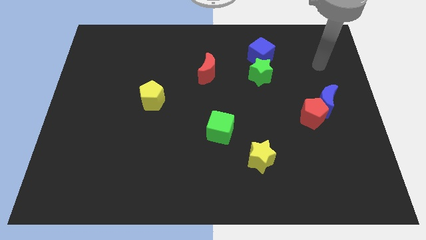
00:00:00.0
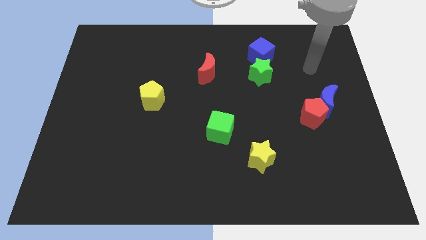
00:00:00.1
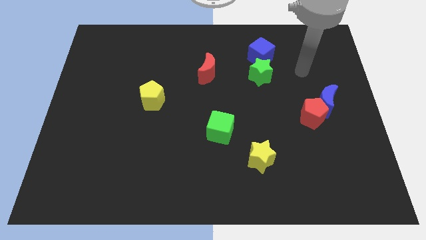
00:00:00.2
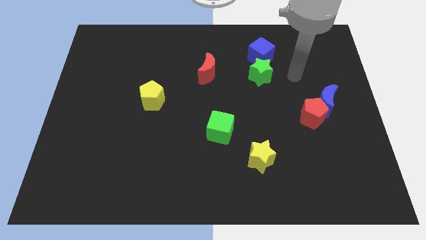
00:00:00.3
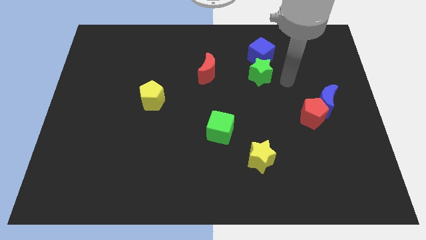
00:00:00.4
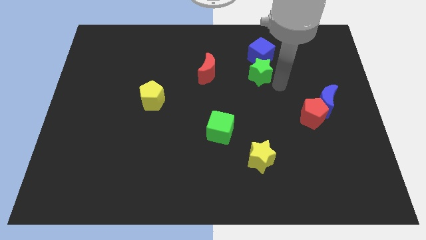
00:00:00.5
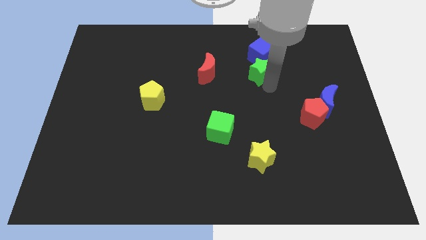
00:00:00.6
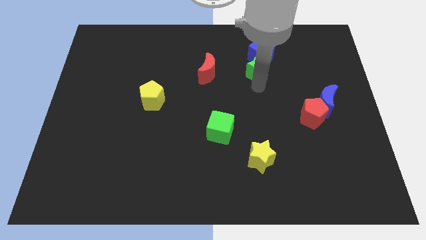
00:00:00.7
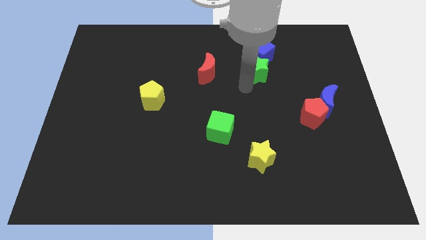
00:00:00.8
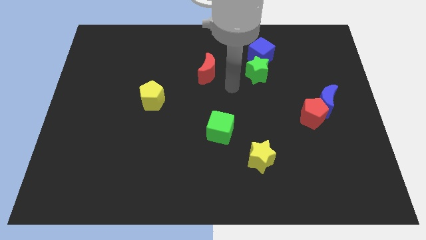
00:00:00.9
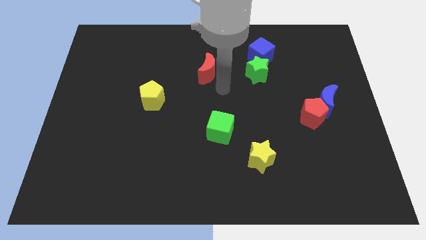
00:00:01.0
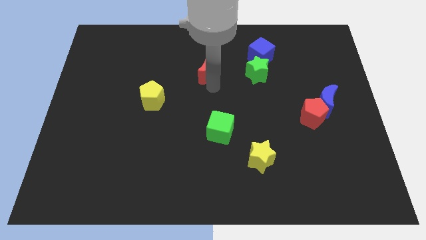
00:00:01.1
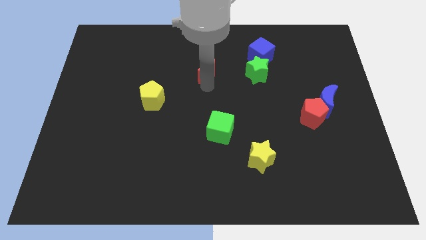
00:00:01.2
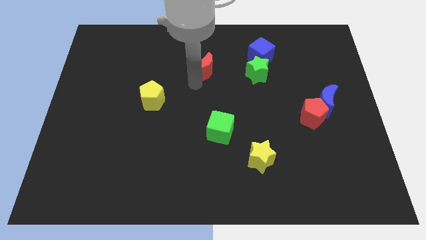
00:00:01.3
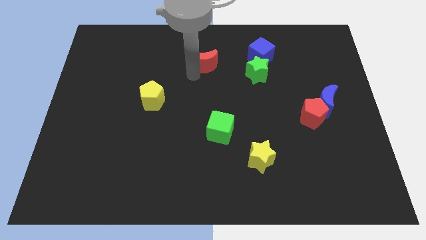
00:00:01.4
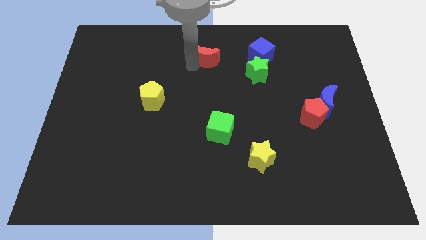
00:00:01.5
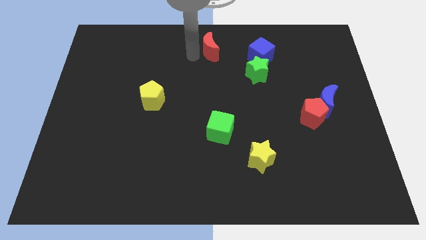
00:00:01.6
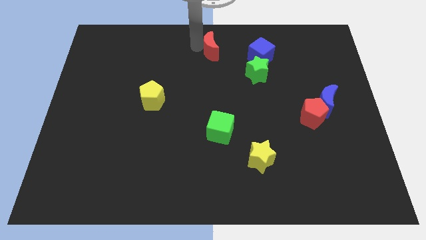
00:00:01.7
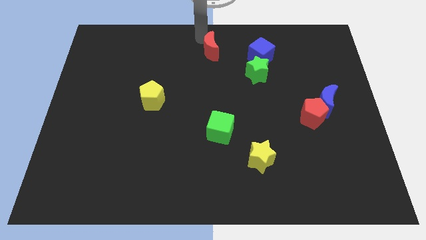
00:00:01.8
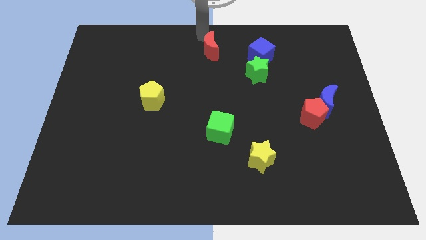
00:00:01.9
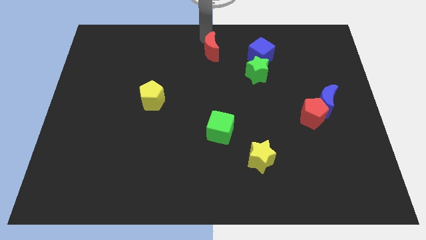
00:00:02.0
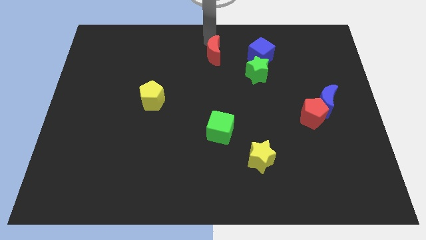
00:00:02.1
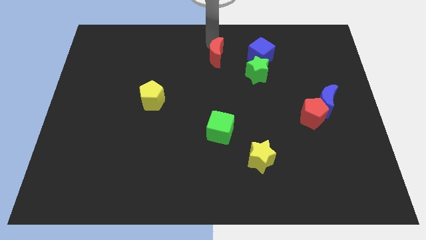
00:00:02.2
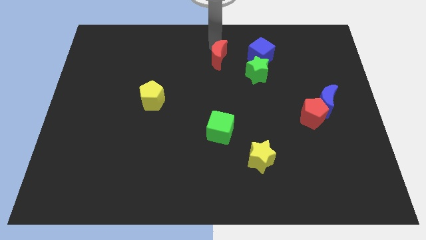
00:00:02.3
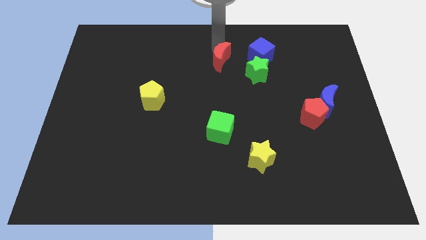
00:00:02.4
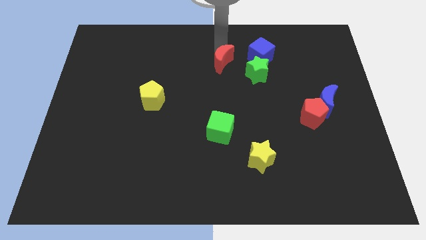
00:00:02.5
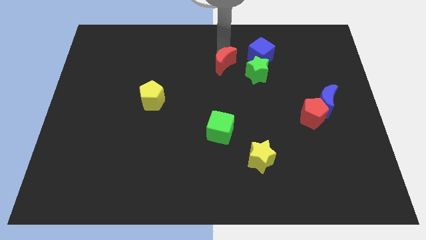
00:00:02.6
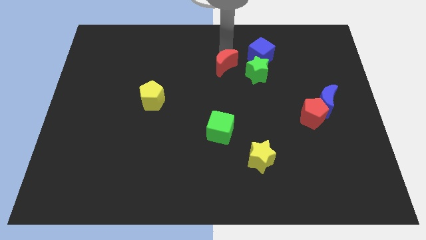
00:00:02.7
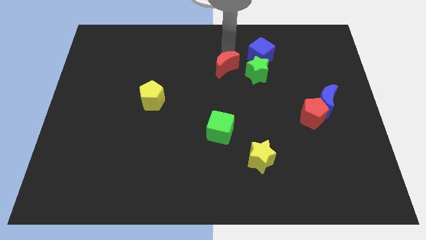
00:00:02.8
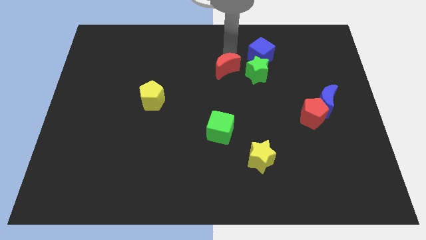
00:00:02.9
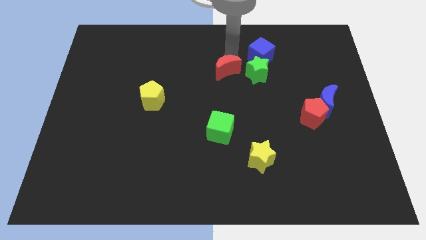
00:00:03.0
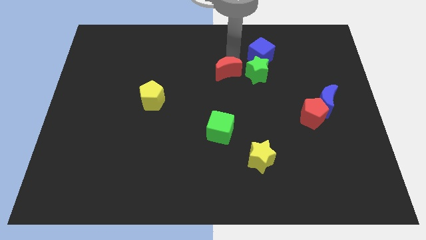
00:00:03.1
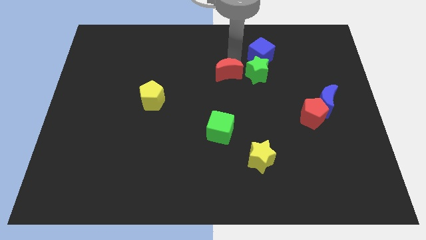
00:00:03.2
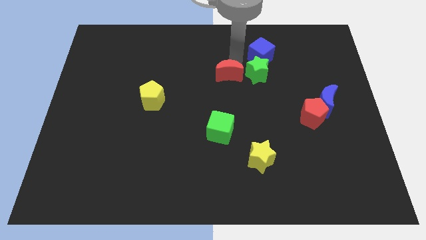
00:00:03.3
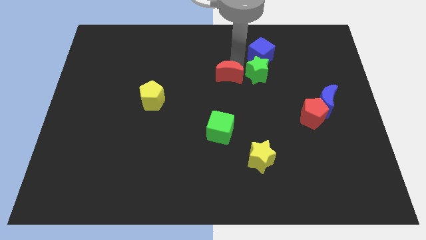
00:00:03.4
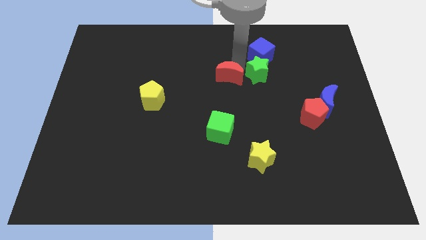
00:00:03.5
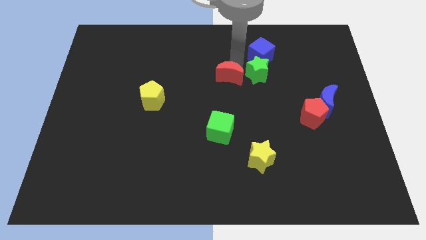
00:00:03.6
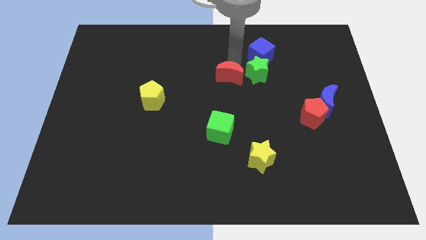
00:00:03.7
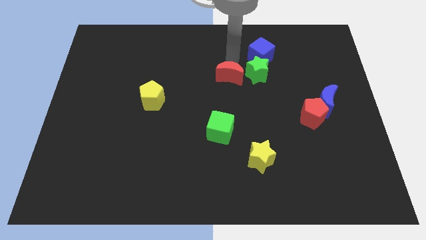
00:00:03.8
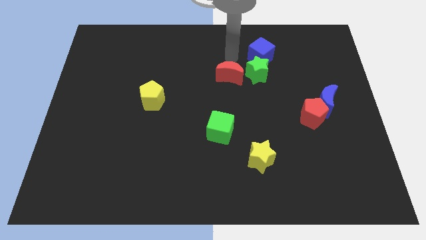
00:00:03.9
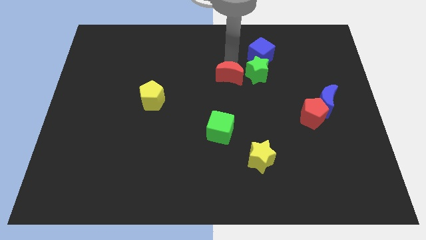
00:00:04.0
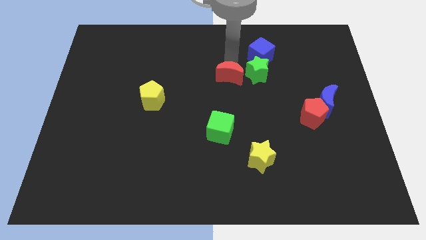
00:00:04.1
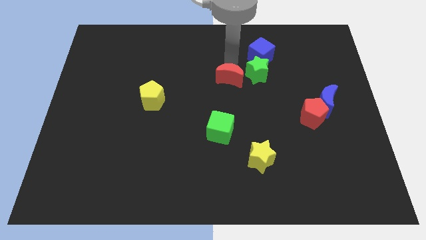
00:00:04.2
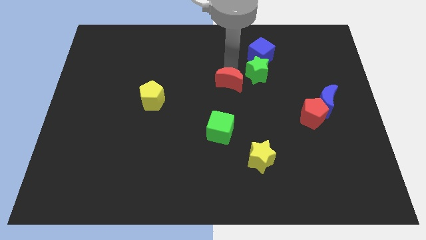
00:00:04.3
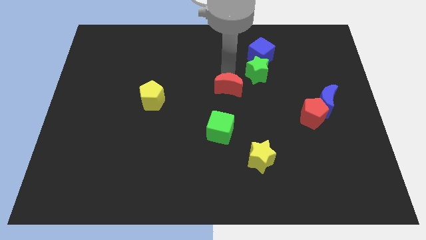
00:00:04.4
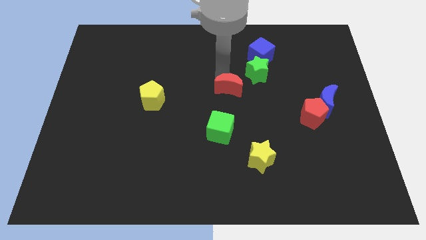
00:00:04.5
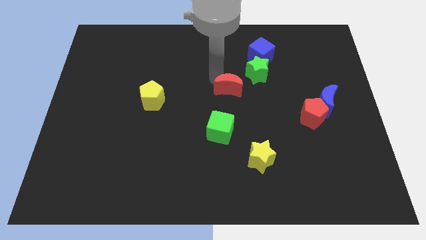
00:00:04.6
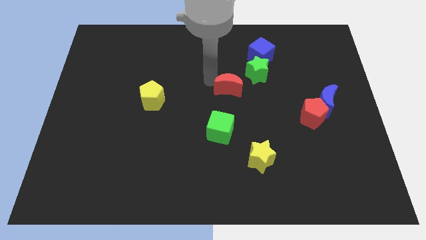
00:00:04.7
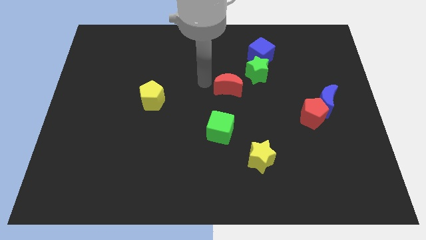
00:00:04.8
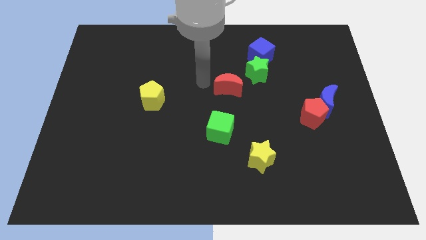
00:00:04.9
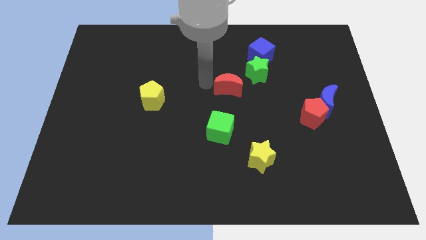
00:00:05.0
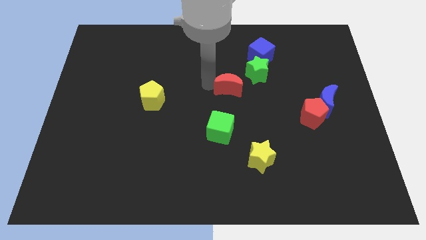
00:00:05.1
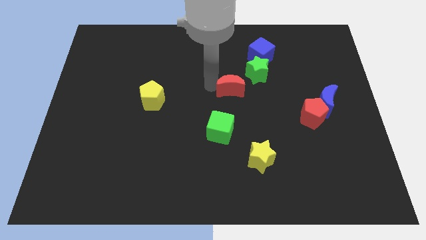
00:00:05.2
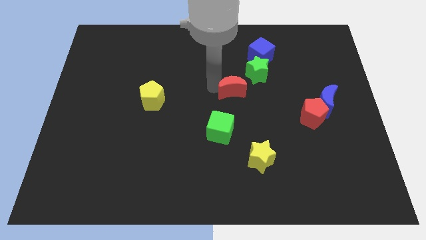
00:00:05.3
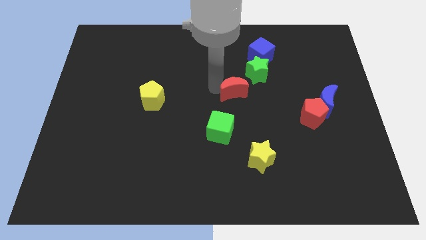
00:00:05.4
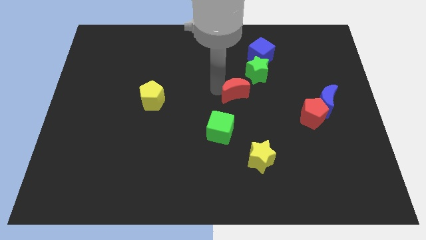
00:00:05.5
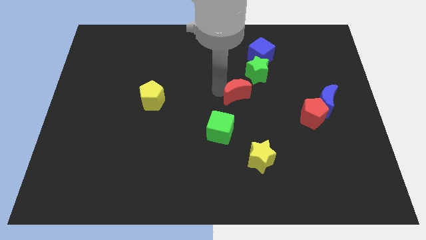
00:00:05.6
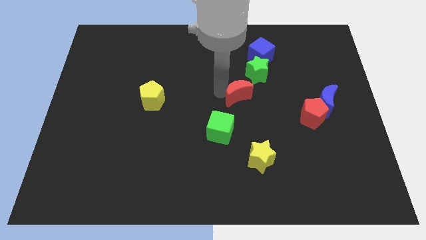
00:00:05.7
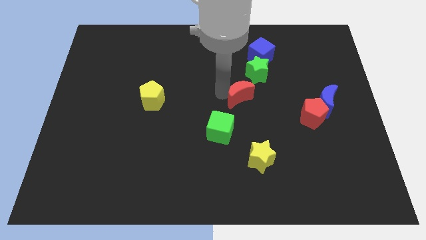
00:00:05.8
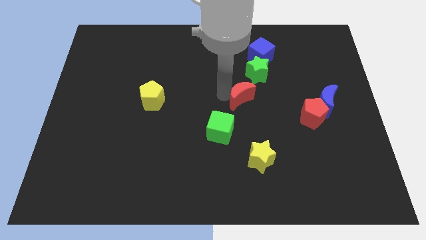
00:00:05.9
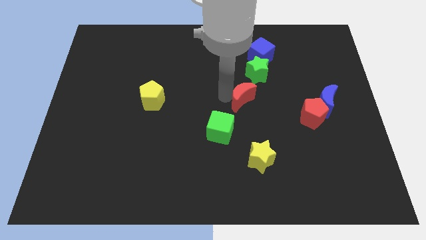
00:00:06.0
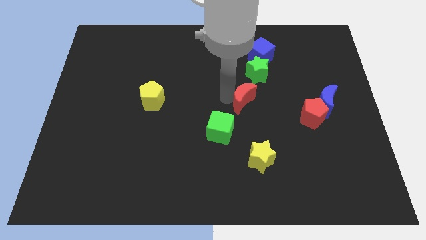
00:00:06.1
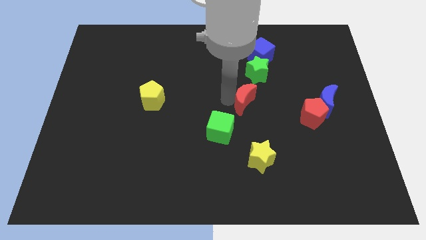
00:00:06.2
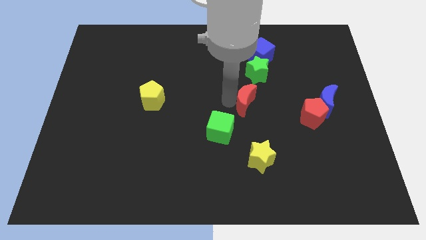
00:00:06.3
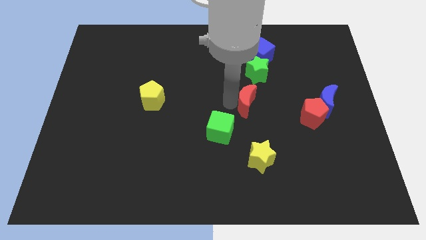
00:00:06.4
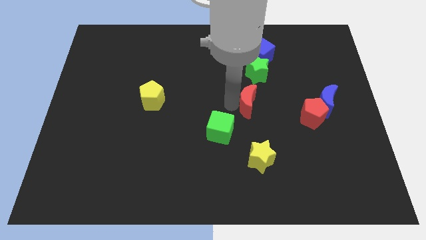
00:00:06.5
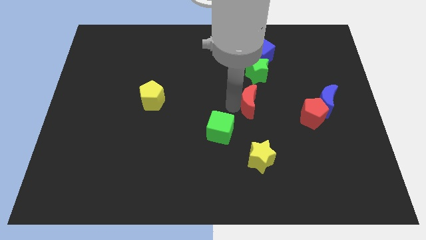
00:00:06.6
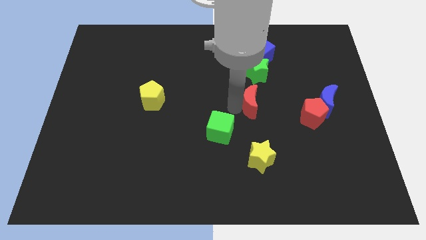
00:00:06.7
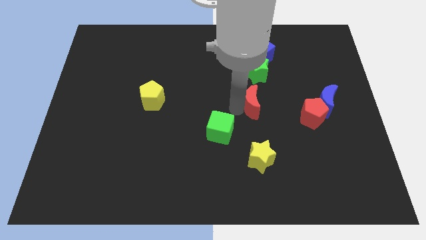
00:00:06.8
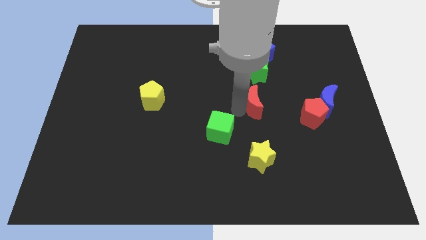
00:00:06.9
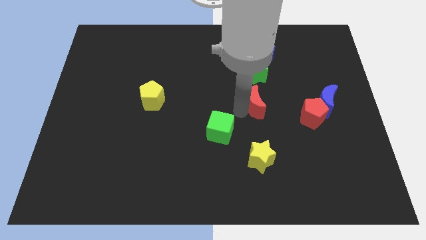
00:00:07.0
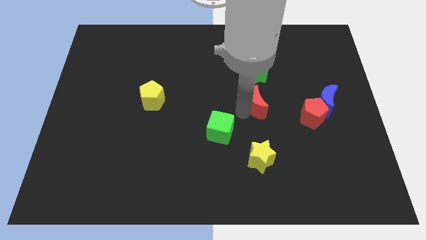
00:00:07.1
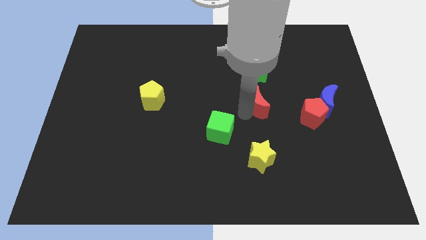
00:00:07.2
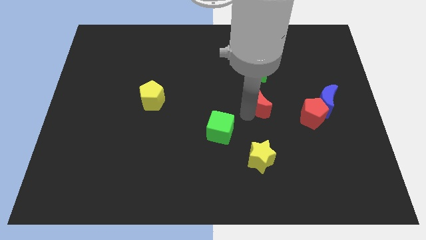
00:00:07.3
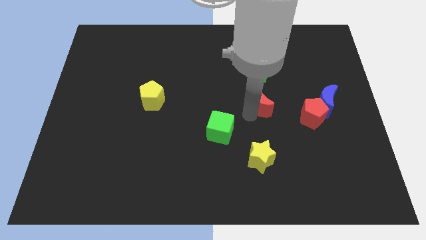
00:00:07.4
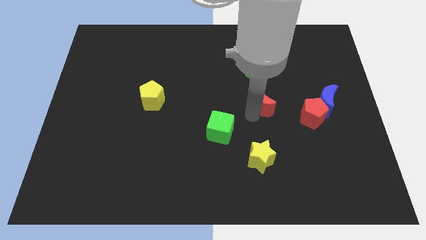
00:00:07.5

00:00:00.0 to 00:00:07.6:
slightly move the red moon to the right

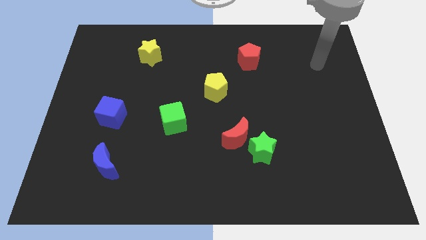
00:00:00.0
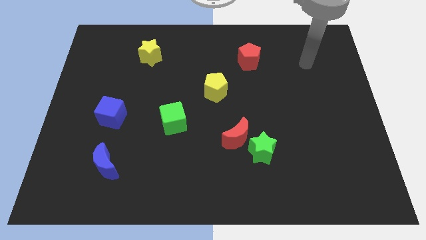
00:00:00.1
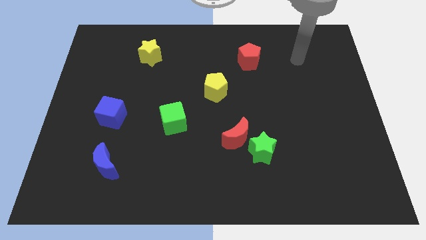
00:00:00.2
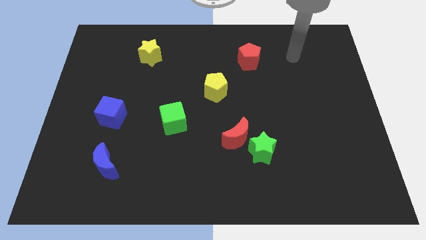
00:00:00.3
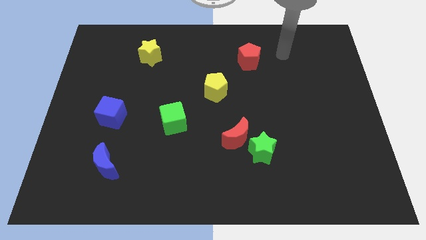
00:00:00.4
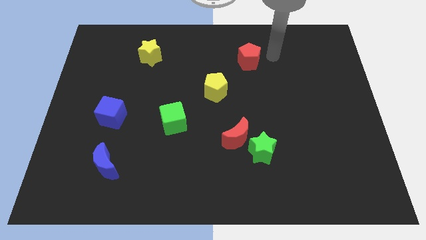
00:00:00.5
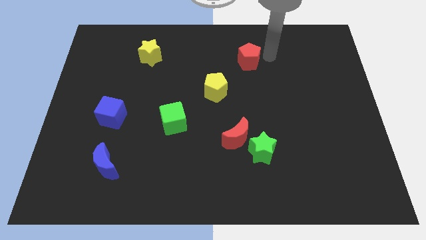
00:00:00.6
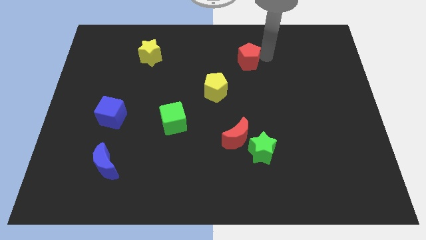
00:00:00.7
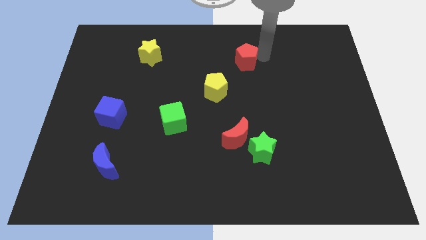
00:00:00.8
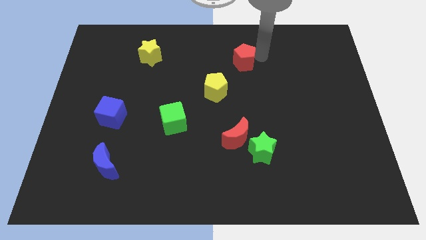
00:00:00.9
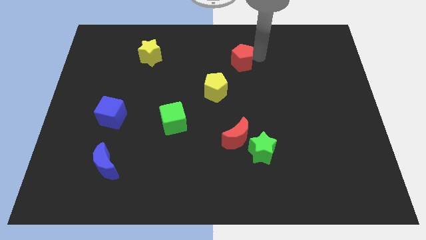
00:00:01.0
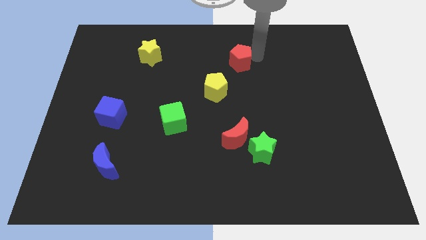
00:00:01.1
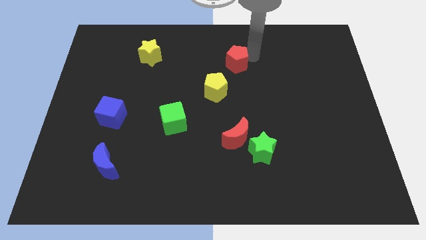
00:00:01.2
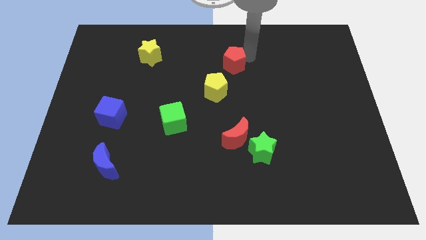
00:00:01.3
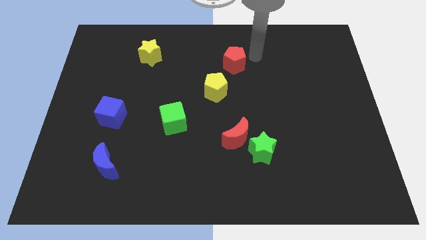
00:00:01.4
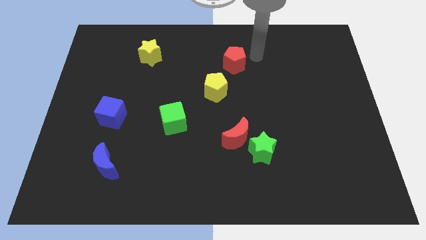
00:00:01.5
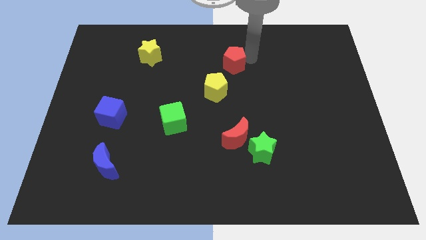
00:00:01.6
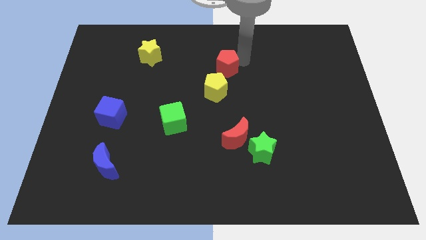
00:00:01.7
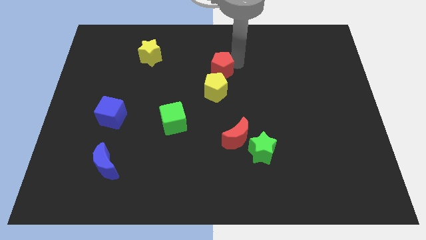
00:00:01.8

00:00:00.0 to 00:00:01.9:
push the red pentagon downwards and to the left a little bit
